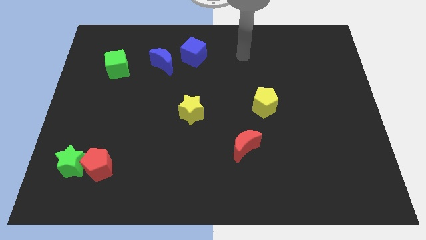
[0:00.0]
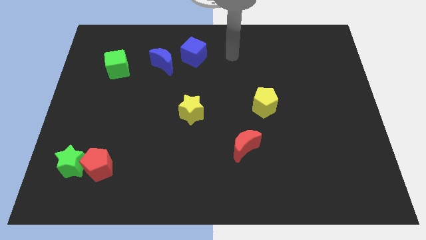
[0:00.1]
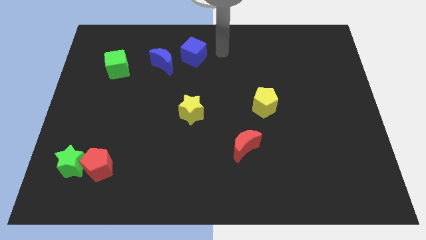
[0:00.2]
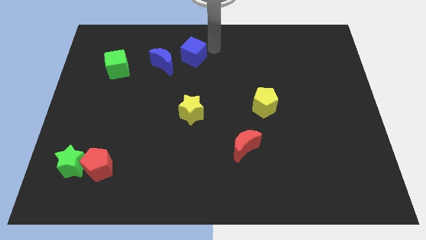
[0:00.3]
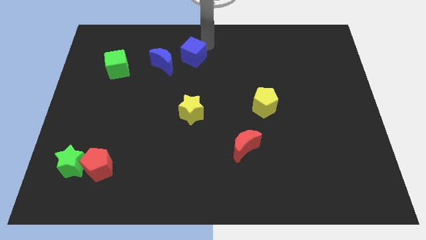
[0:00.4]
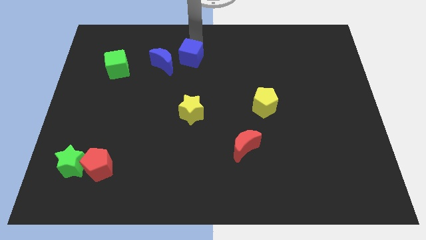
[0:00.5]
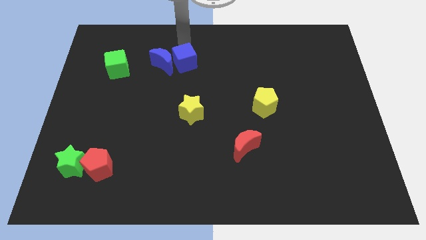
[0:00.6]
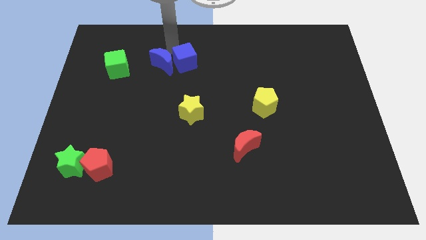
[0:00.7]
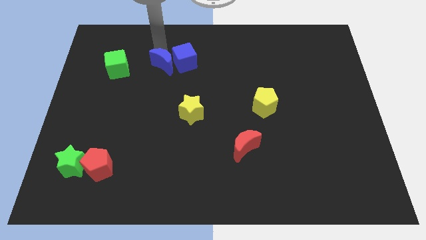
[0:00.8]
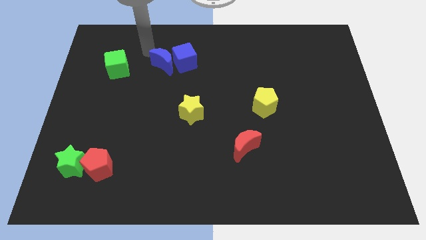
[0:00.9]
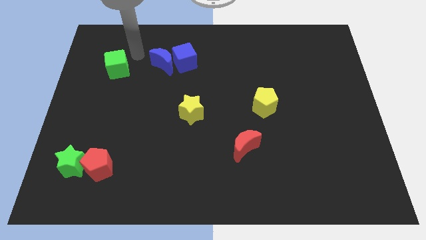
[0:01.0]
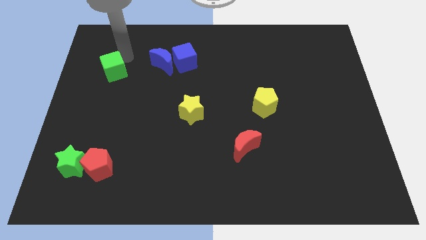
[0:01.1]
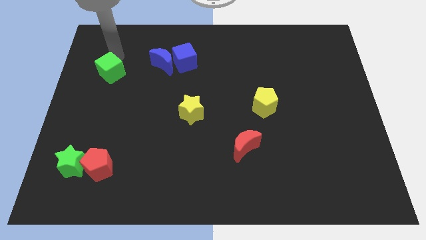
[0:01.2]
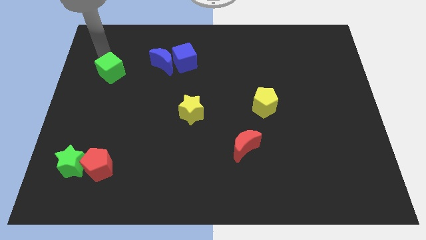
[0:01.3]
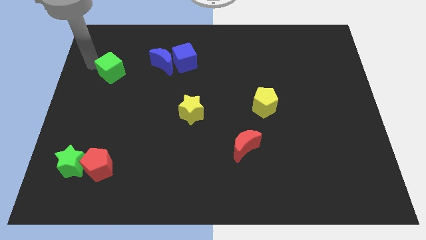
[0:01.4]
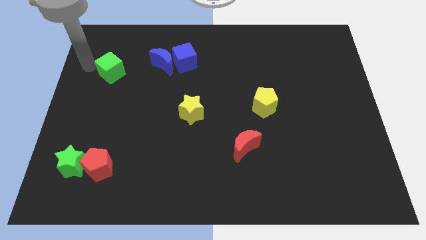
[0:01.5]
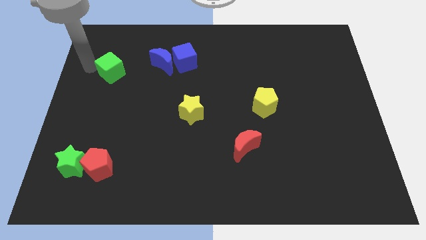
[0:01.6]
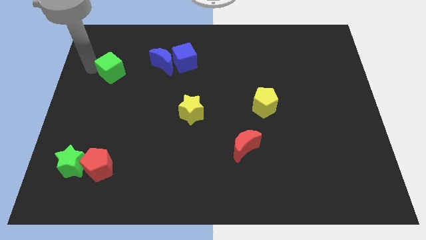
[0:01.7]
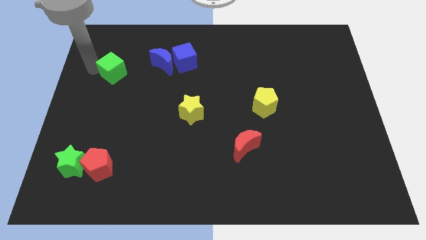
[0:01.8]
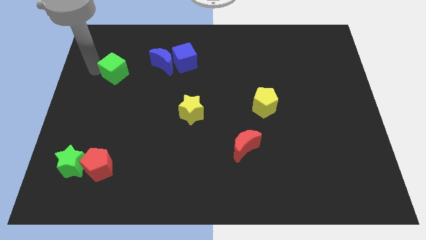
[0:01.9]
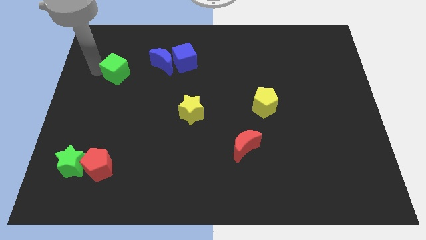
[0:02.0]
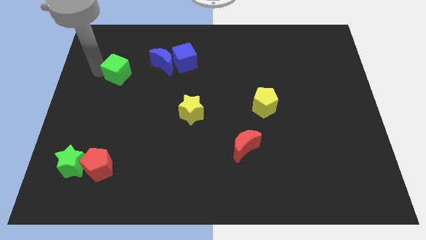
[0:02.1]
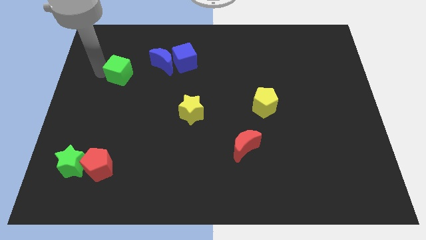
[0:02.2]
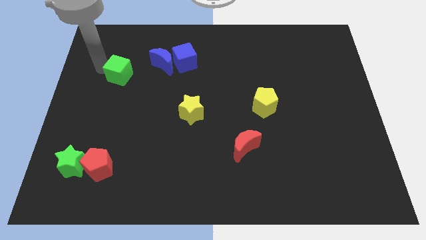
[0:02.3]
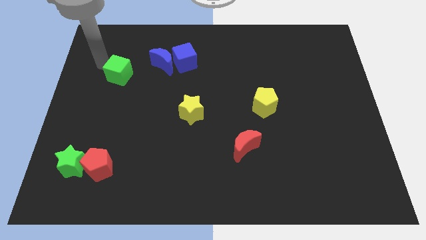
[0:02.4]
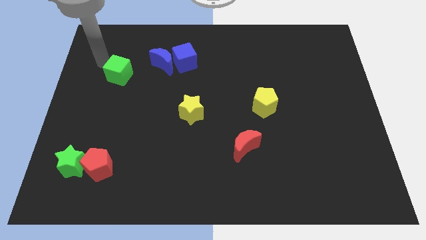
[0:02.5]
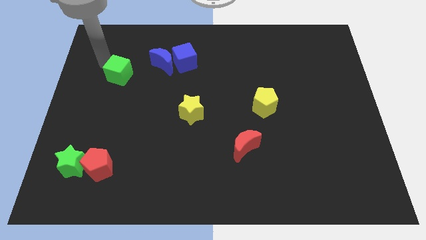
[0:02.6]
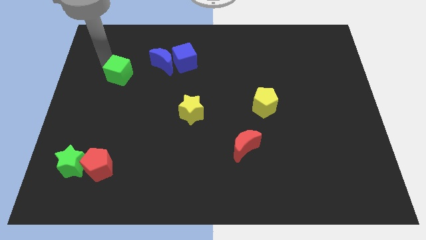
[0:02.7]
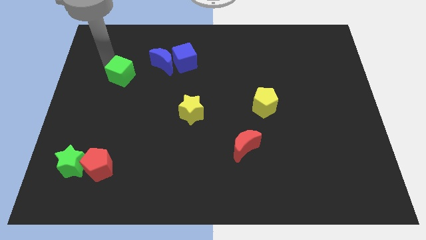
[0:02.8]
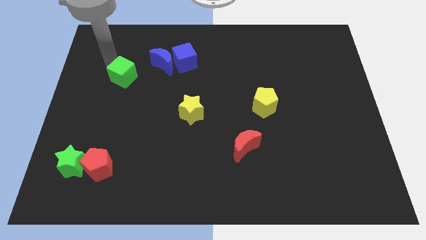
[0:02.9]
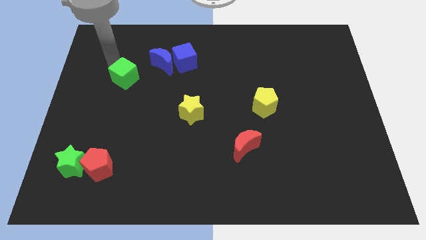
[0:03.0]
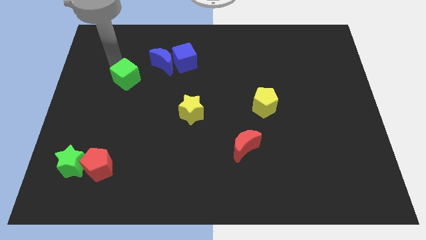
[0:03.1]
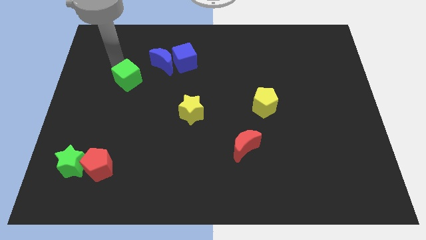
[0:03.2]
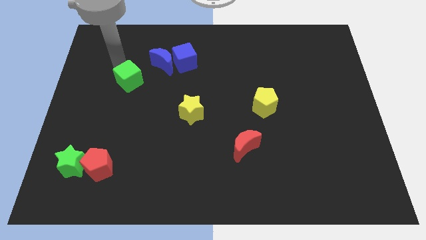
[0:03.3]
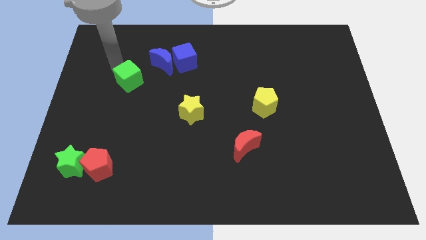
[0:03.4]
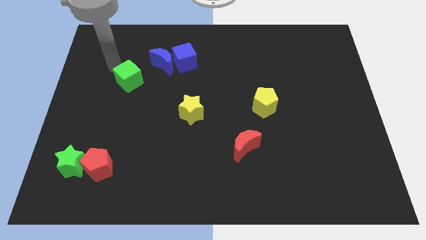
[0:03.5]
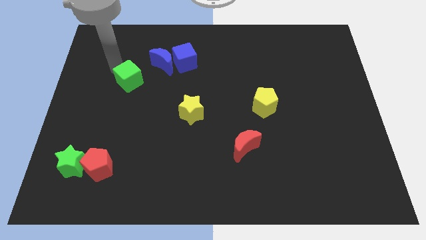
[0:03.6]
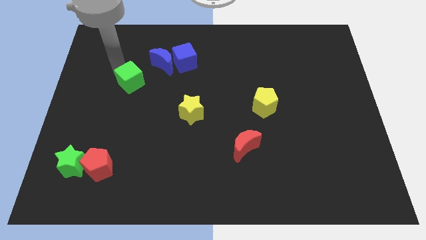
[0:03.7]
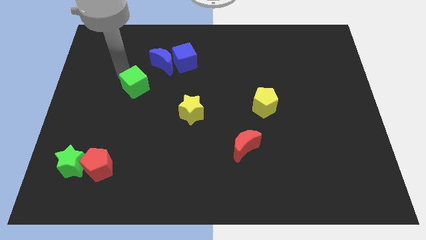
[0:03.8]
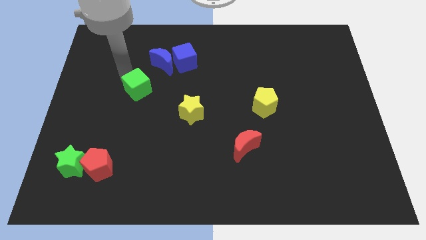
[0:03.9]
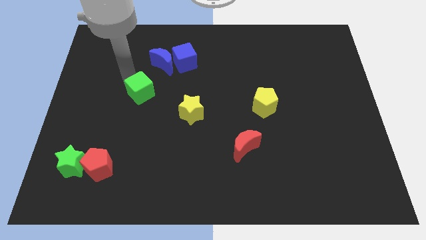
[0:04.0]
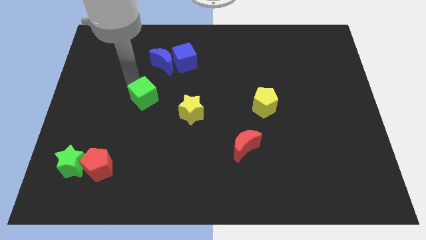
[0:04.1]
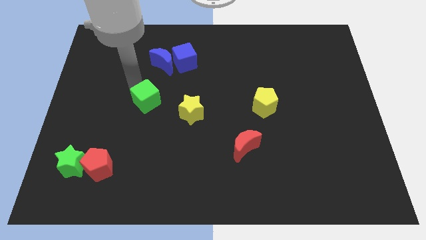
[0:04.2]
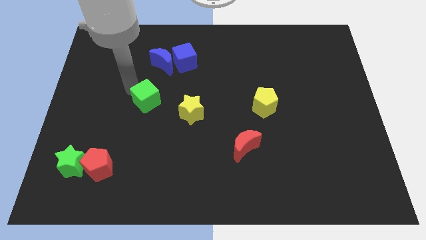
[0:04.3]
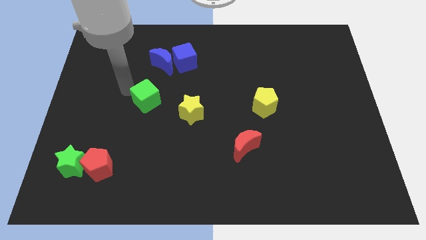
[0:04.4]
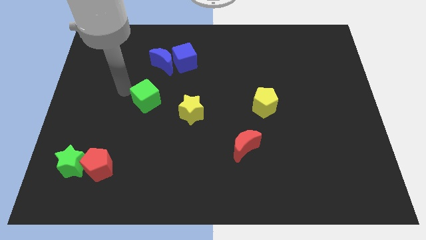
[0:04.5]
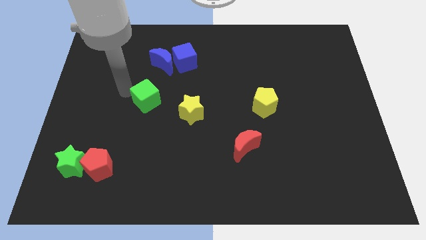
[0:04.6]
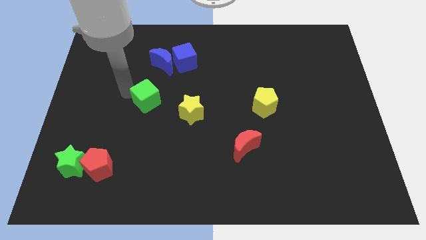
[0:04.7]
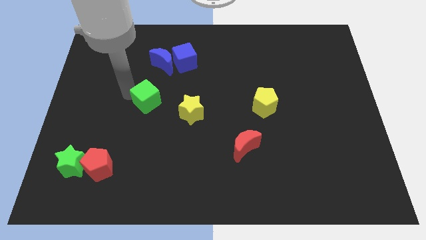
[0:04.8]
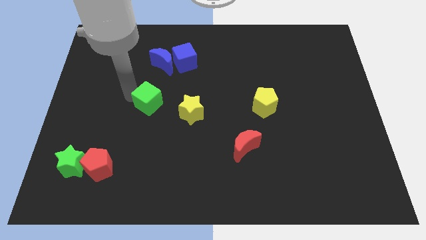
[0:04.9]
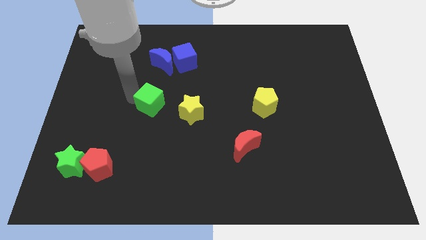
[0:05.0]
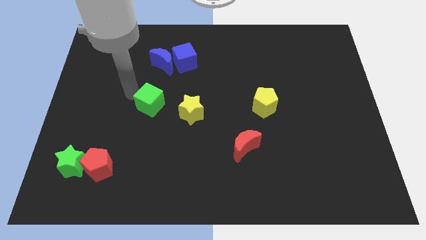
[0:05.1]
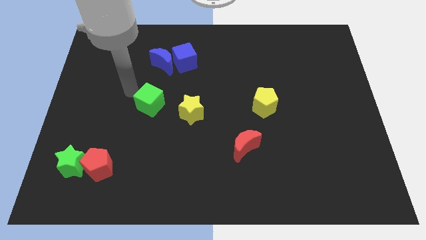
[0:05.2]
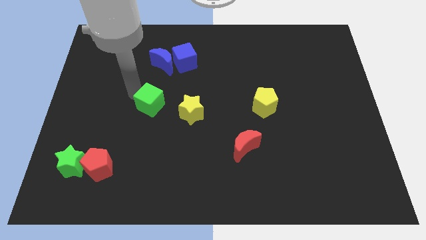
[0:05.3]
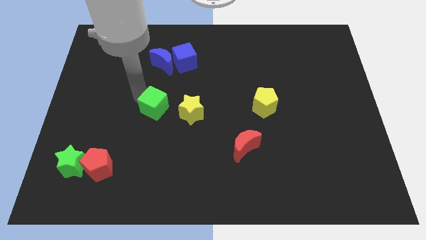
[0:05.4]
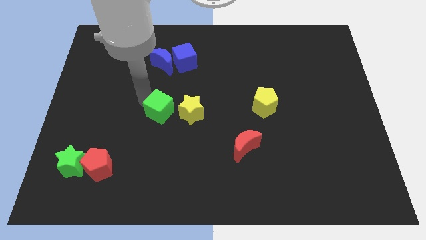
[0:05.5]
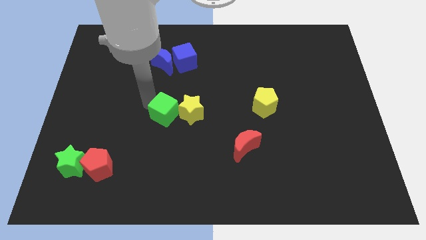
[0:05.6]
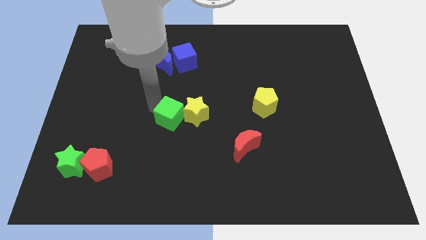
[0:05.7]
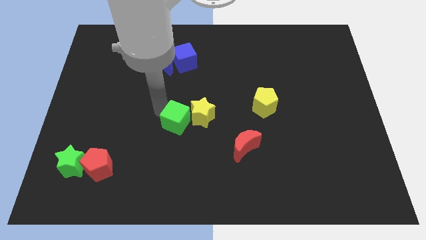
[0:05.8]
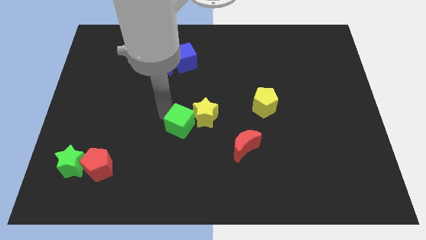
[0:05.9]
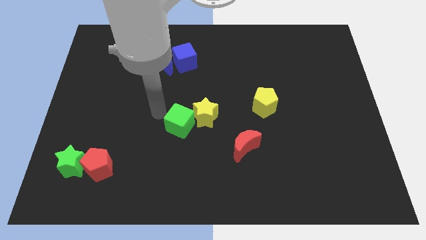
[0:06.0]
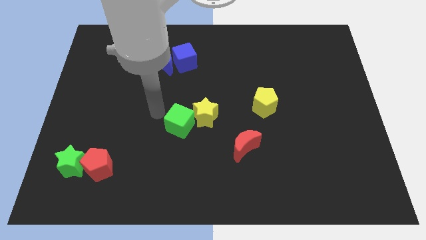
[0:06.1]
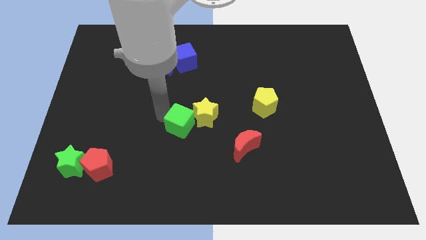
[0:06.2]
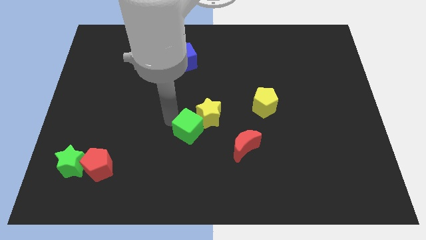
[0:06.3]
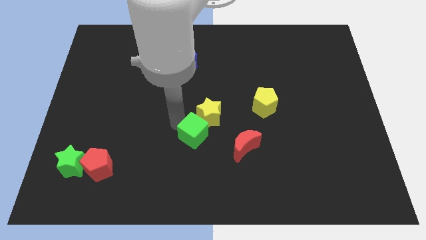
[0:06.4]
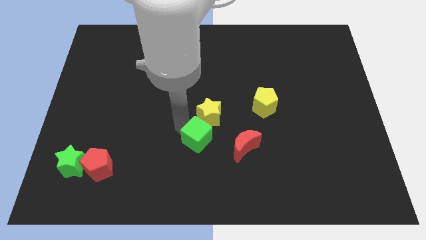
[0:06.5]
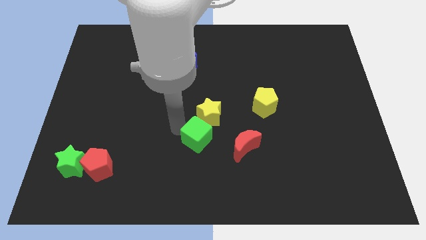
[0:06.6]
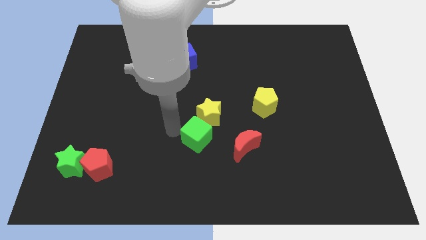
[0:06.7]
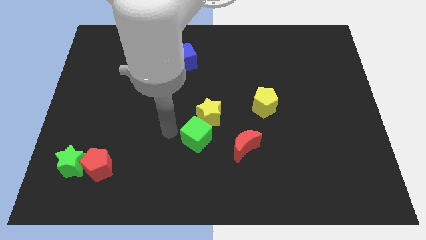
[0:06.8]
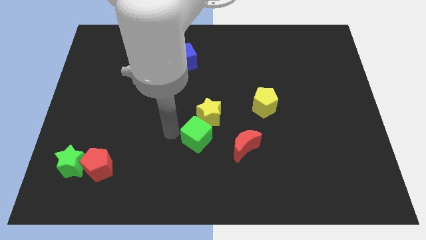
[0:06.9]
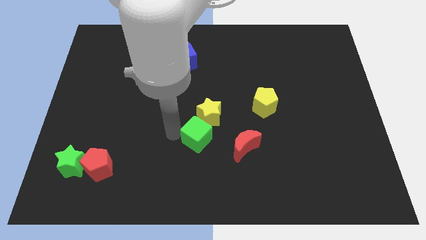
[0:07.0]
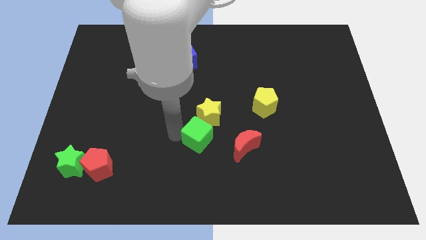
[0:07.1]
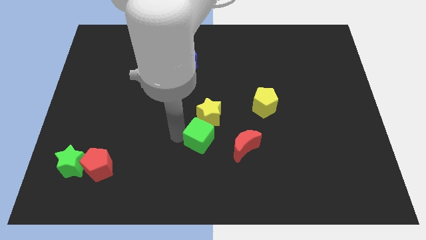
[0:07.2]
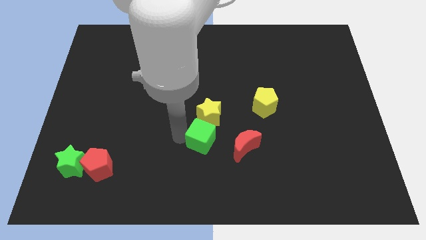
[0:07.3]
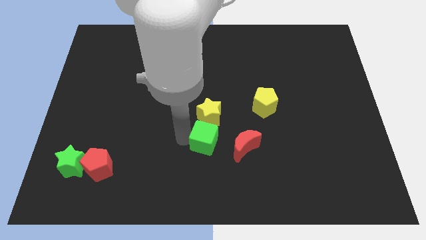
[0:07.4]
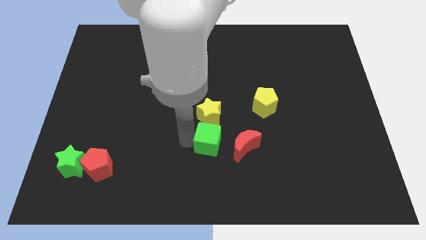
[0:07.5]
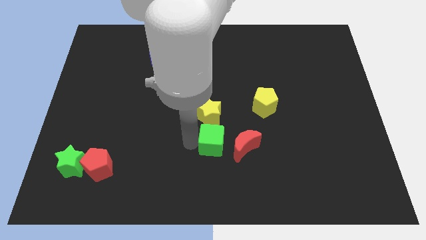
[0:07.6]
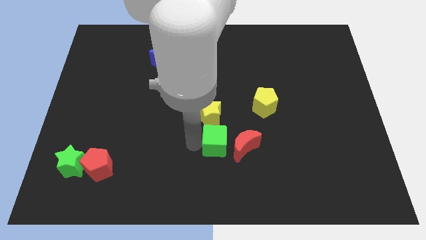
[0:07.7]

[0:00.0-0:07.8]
put the green cube to the red moon
